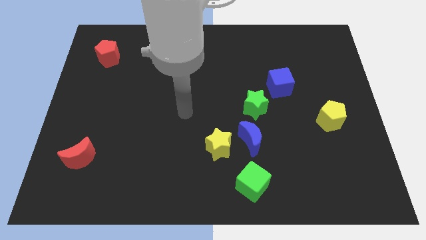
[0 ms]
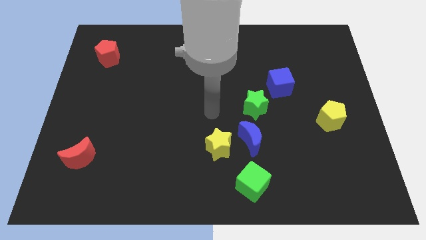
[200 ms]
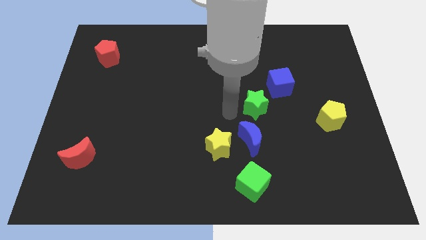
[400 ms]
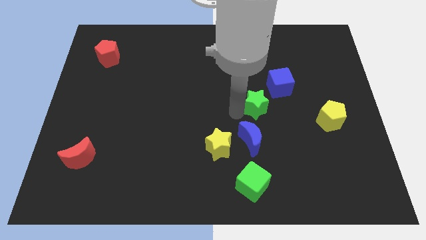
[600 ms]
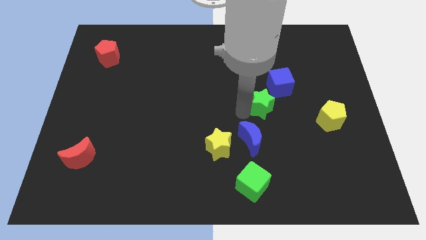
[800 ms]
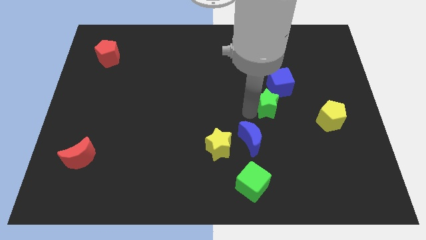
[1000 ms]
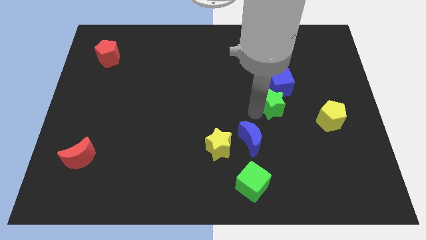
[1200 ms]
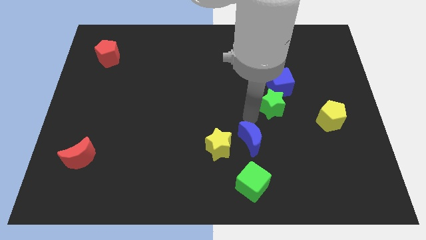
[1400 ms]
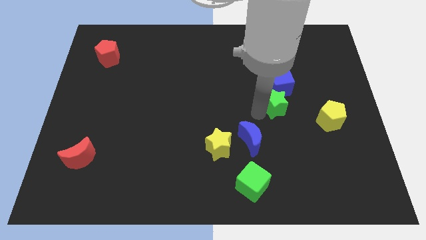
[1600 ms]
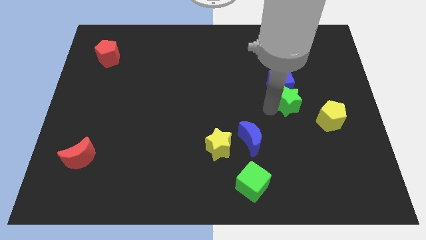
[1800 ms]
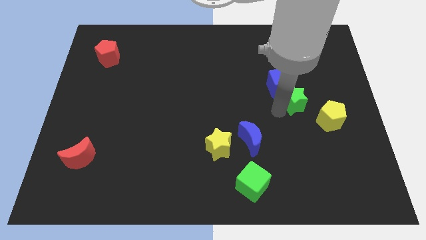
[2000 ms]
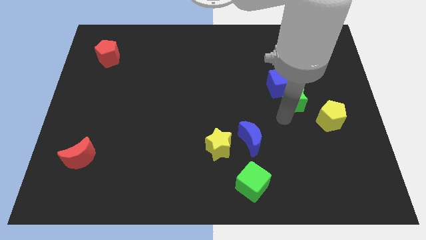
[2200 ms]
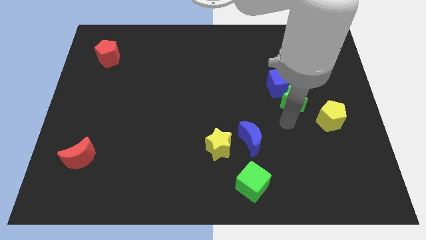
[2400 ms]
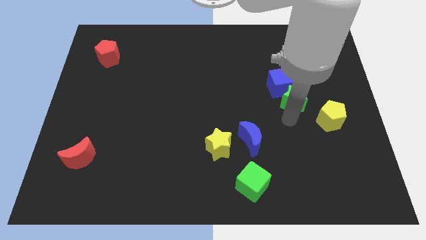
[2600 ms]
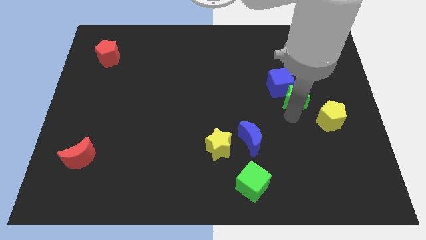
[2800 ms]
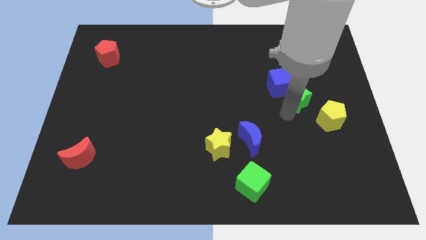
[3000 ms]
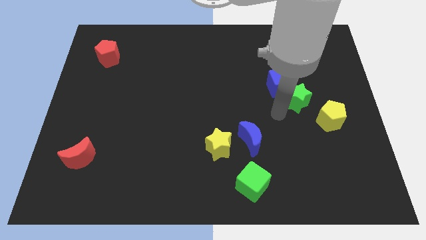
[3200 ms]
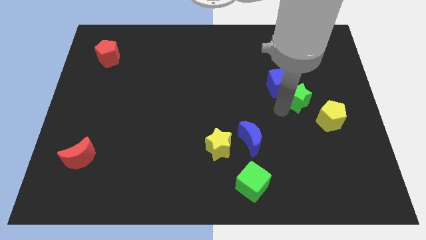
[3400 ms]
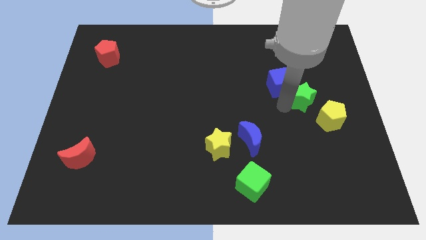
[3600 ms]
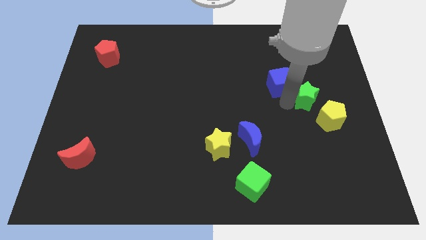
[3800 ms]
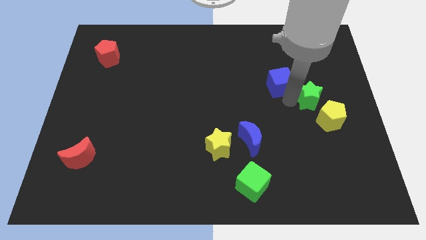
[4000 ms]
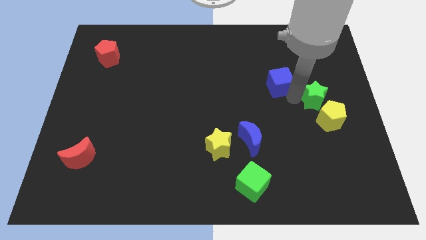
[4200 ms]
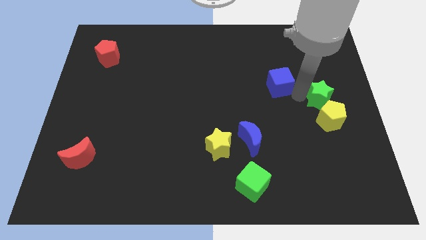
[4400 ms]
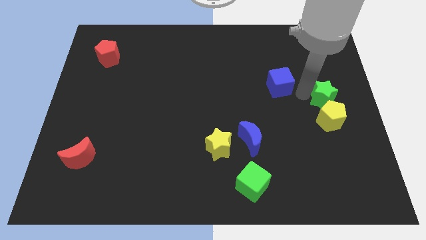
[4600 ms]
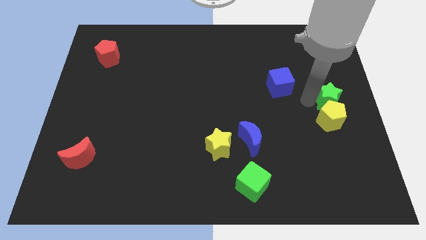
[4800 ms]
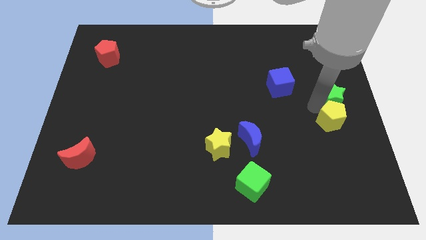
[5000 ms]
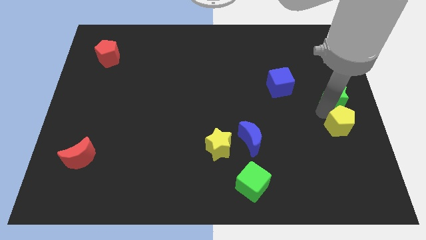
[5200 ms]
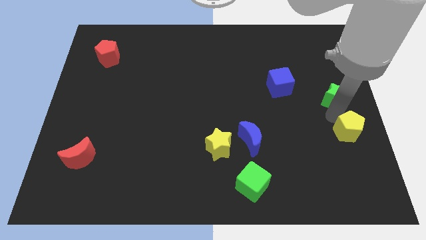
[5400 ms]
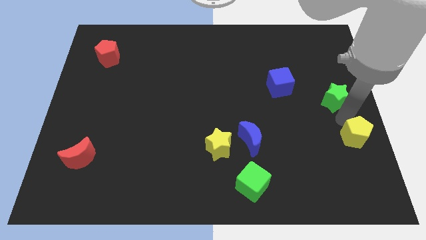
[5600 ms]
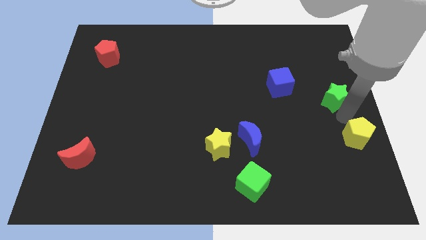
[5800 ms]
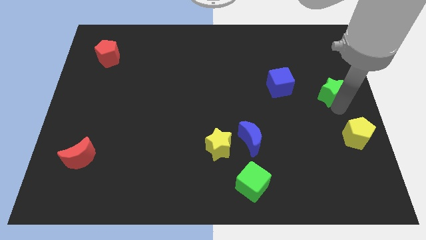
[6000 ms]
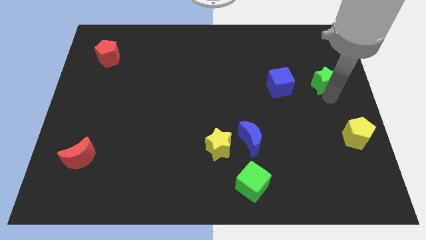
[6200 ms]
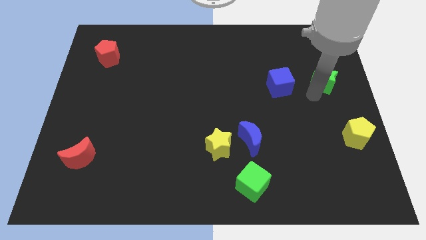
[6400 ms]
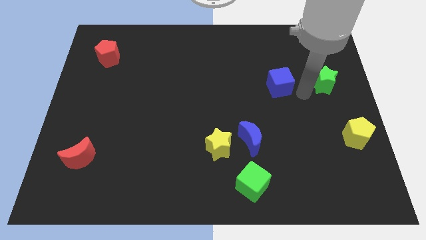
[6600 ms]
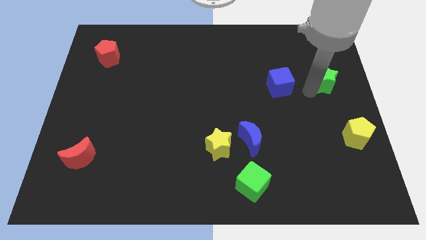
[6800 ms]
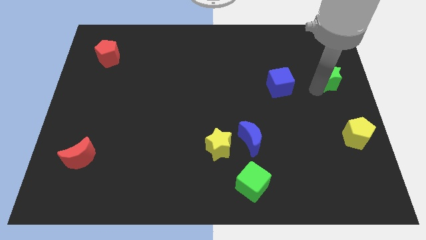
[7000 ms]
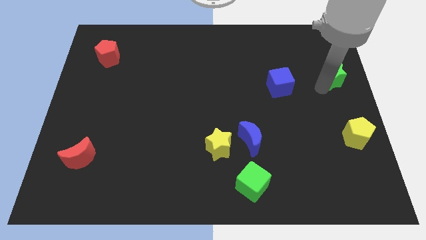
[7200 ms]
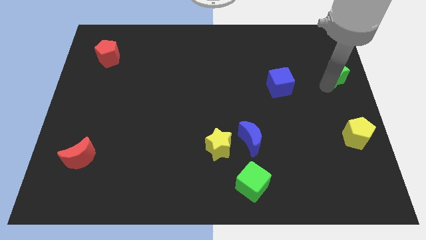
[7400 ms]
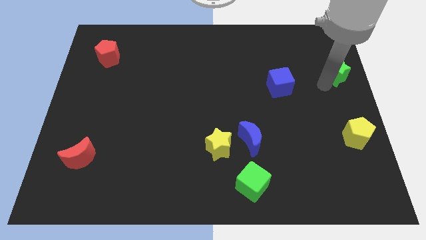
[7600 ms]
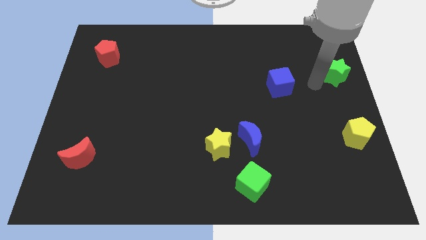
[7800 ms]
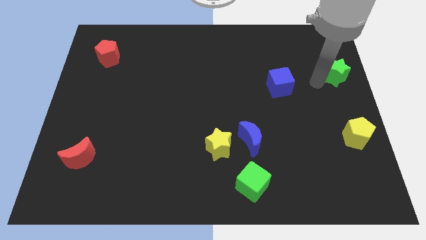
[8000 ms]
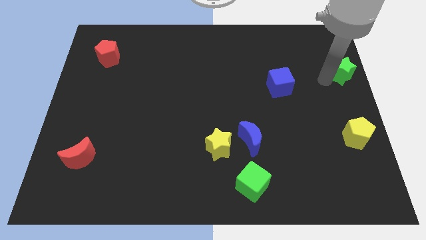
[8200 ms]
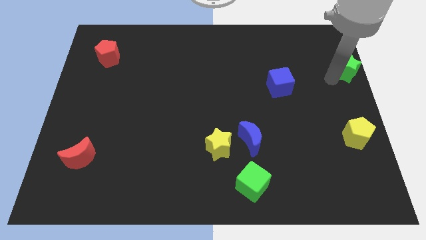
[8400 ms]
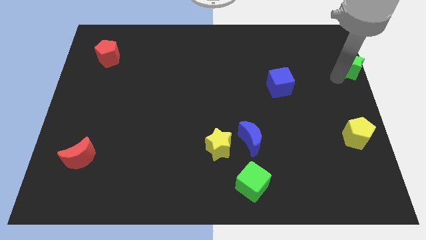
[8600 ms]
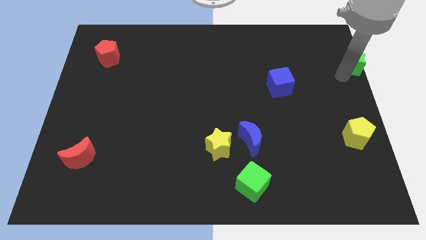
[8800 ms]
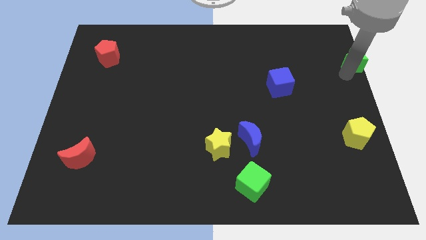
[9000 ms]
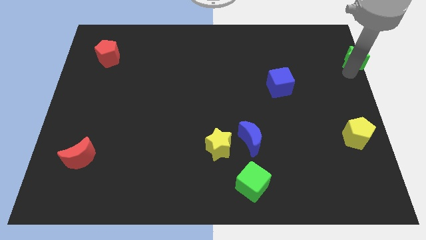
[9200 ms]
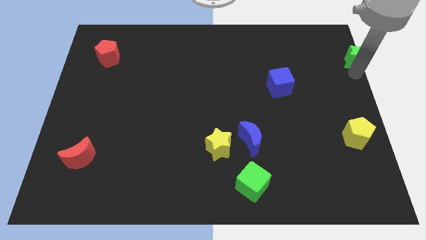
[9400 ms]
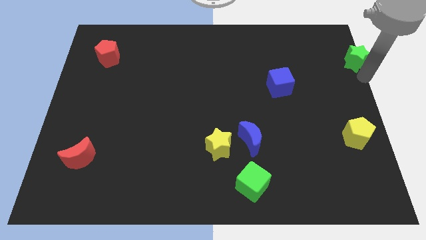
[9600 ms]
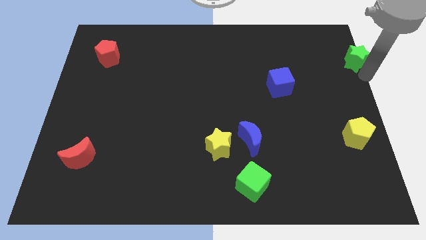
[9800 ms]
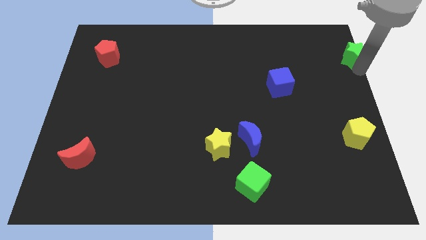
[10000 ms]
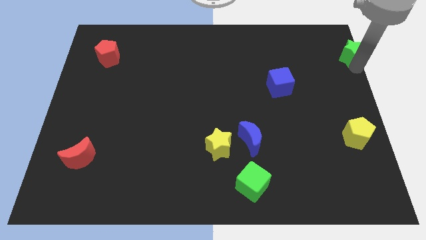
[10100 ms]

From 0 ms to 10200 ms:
slide the green star to the top right corner

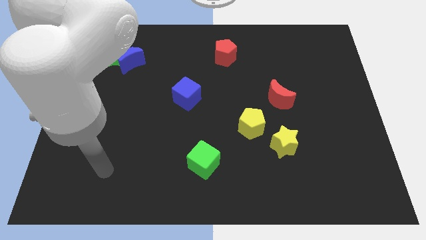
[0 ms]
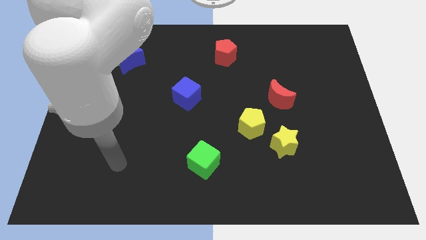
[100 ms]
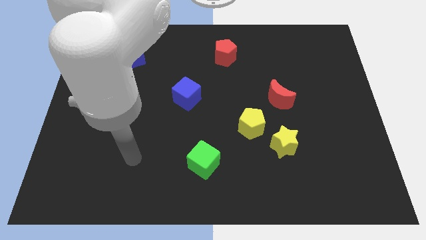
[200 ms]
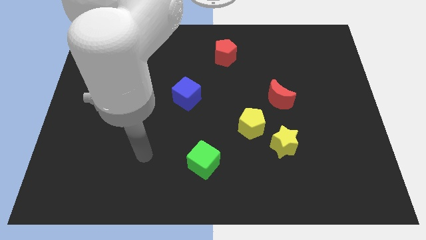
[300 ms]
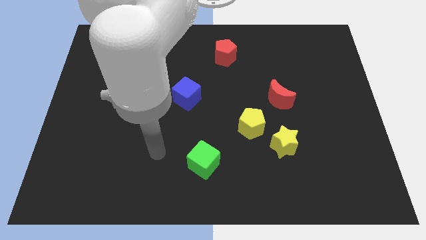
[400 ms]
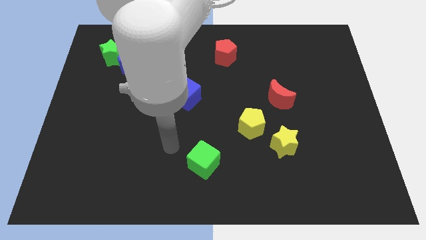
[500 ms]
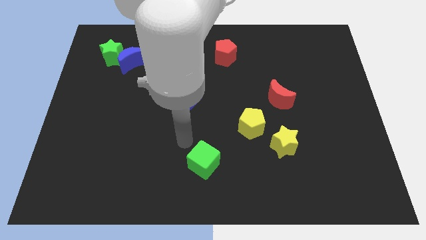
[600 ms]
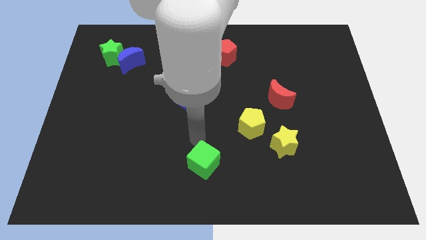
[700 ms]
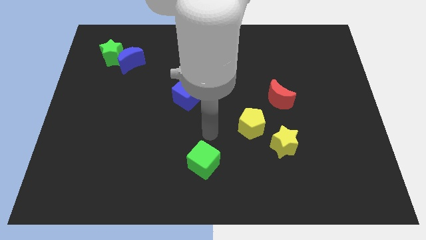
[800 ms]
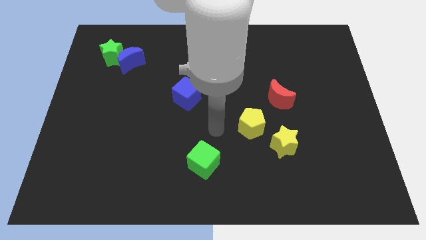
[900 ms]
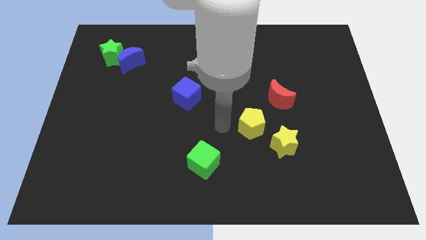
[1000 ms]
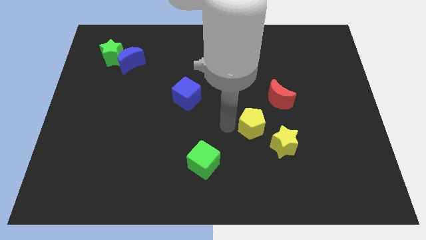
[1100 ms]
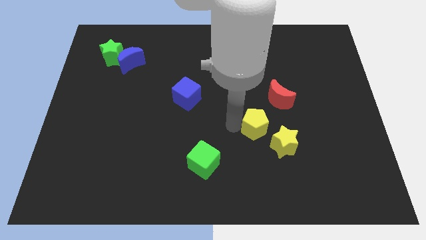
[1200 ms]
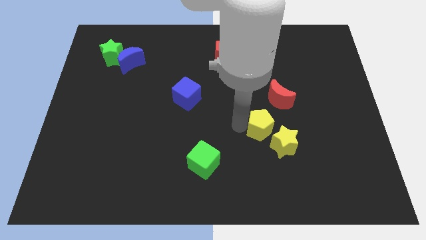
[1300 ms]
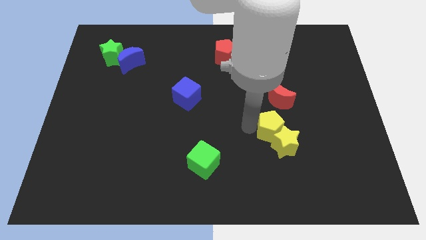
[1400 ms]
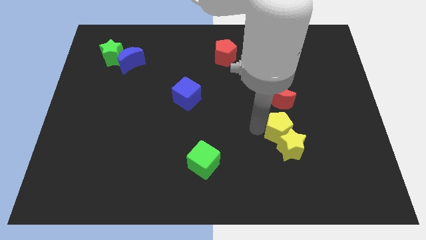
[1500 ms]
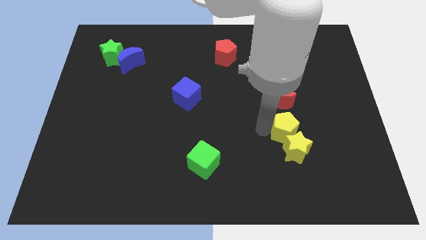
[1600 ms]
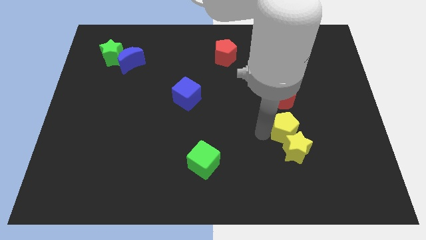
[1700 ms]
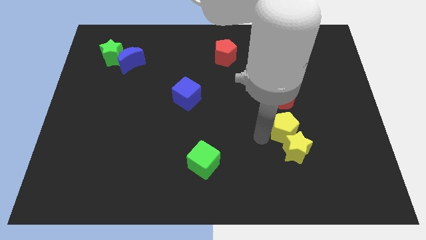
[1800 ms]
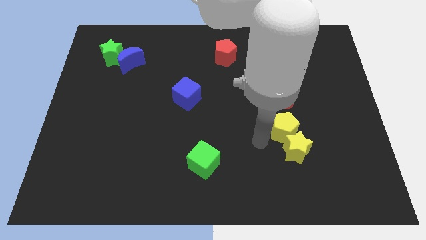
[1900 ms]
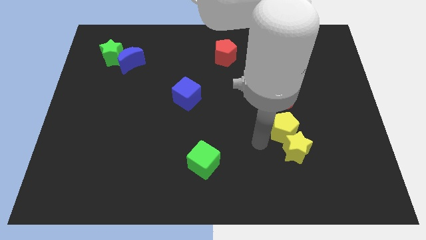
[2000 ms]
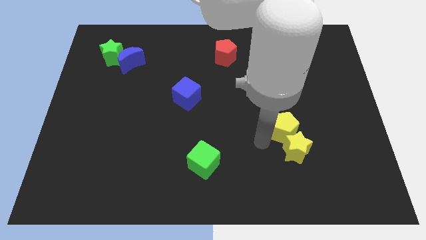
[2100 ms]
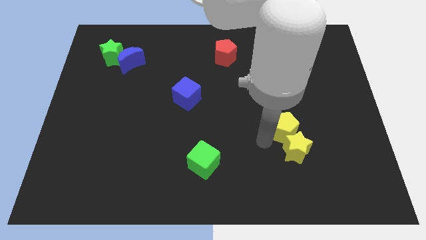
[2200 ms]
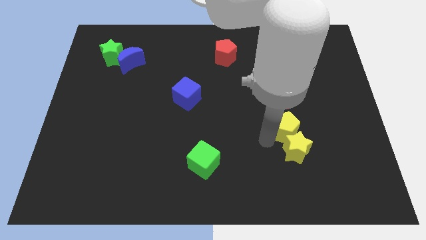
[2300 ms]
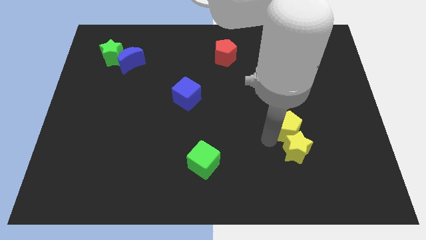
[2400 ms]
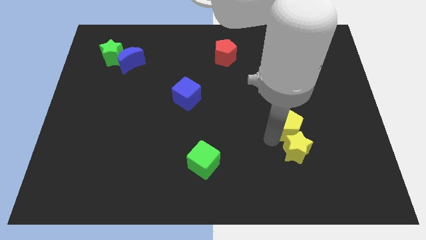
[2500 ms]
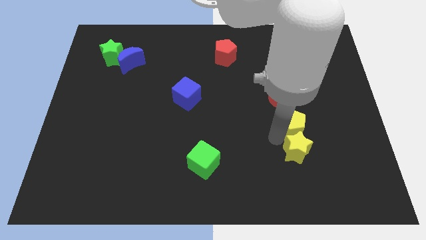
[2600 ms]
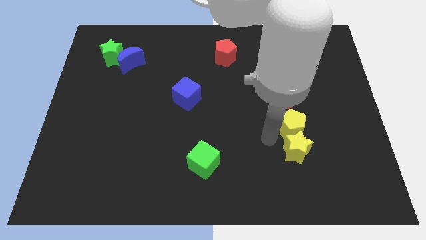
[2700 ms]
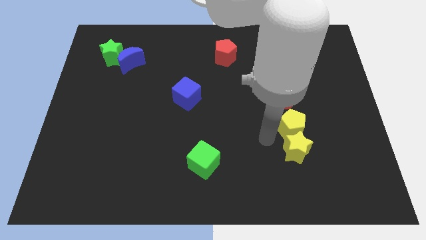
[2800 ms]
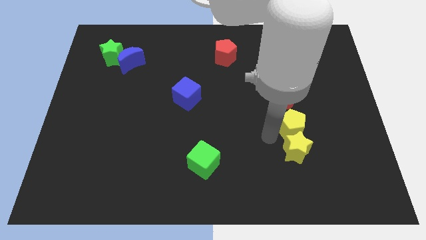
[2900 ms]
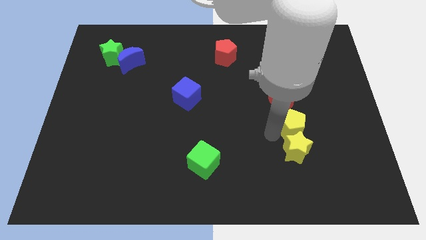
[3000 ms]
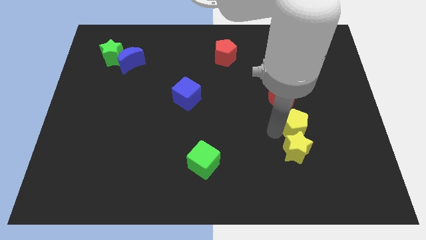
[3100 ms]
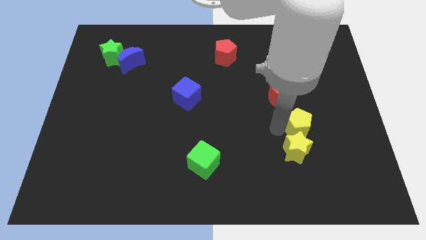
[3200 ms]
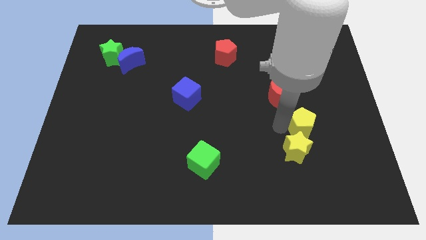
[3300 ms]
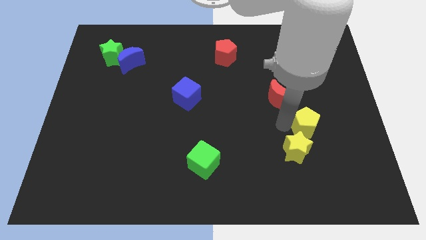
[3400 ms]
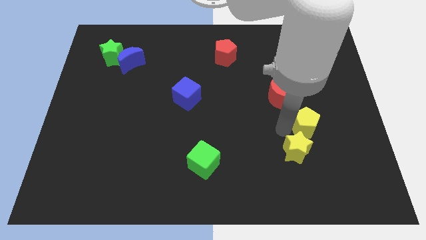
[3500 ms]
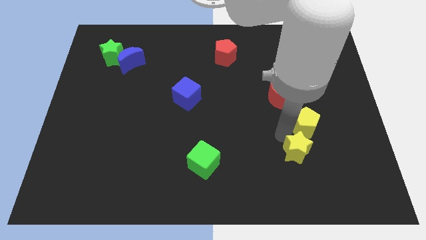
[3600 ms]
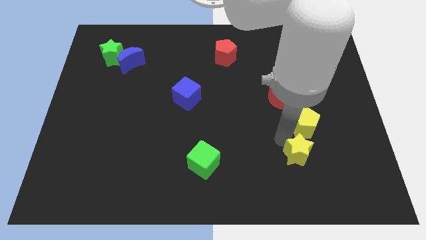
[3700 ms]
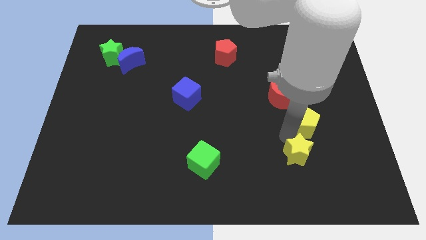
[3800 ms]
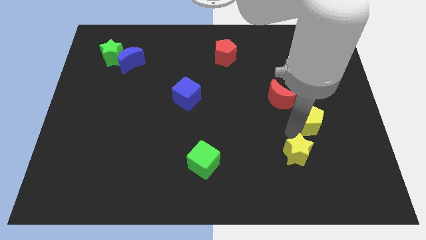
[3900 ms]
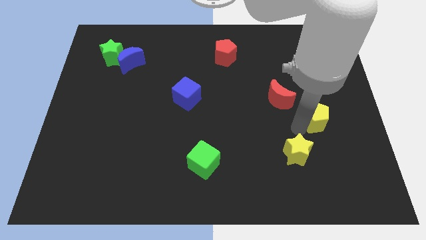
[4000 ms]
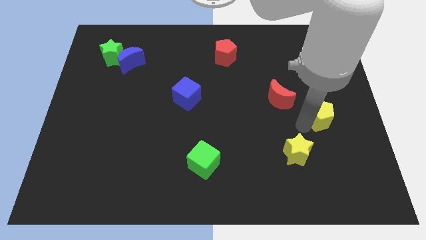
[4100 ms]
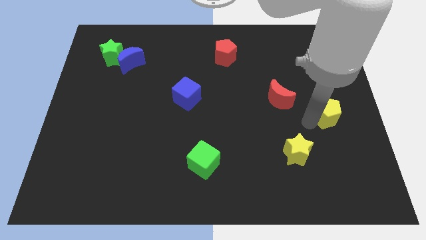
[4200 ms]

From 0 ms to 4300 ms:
put the yellow pentagon to the center right
